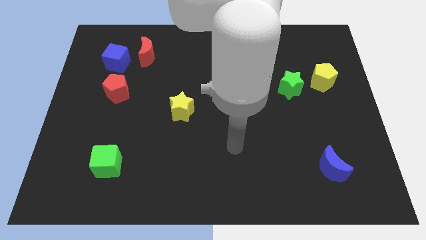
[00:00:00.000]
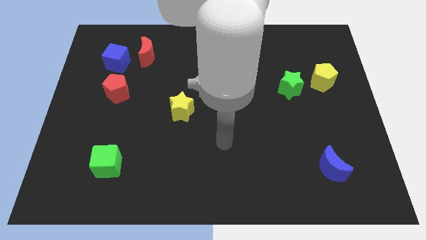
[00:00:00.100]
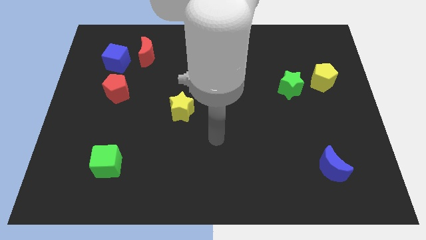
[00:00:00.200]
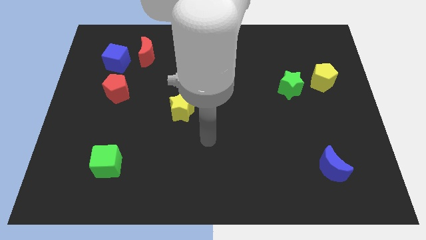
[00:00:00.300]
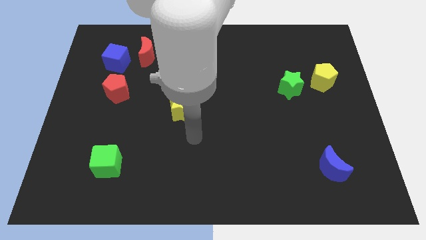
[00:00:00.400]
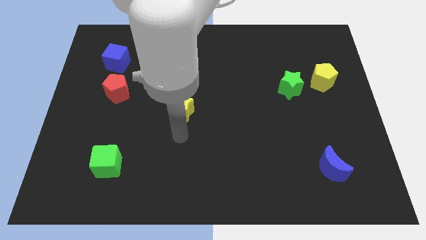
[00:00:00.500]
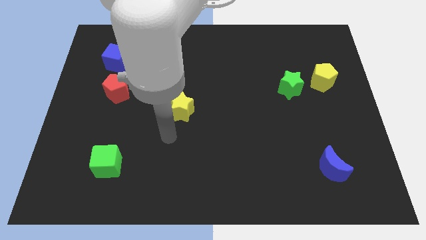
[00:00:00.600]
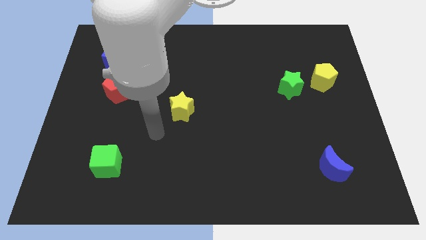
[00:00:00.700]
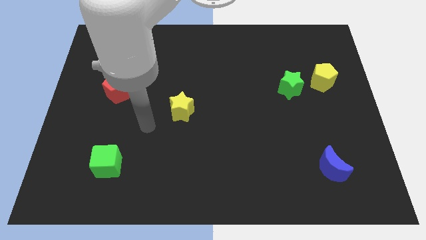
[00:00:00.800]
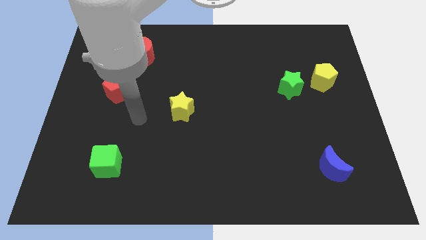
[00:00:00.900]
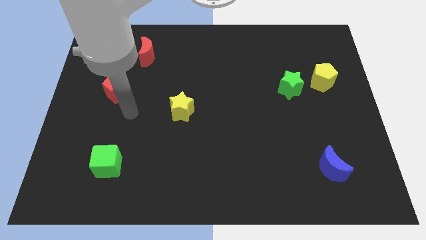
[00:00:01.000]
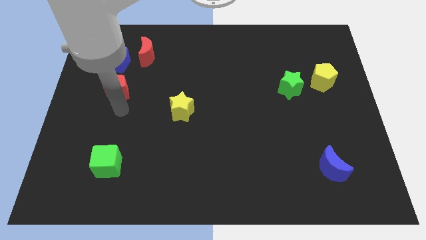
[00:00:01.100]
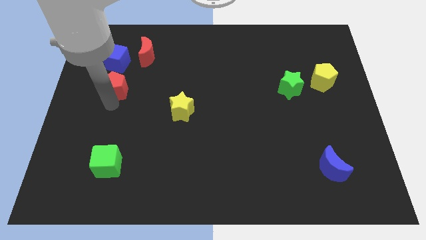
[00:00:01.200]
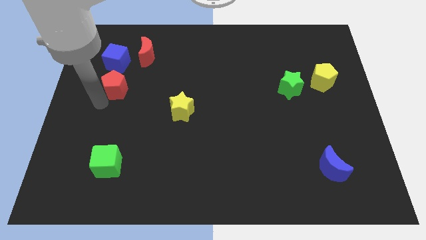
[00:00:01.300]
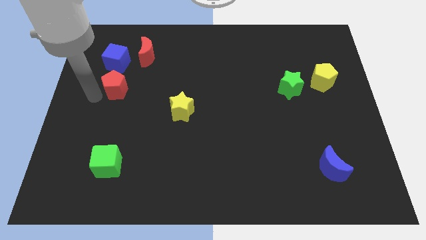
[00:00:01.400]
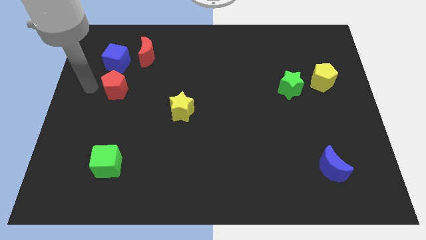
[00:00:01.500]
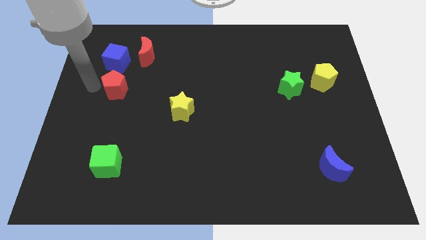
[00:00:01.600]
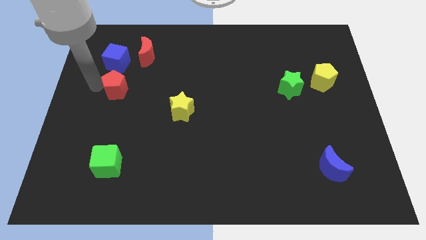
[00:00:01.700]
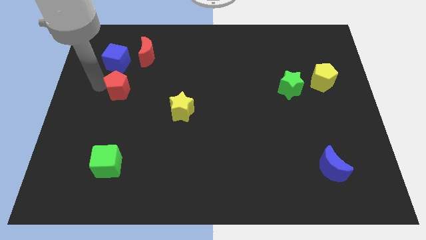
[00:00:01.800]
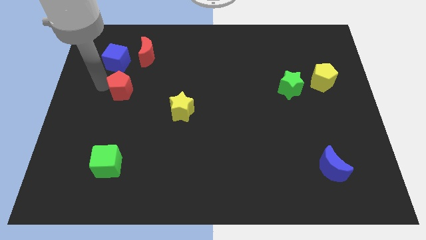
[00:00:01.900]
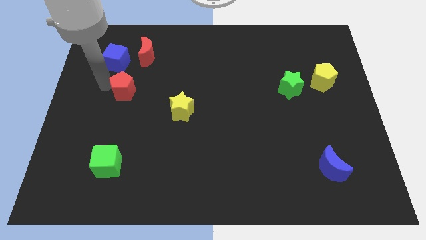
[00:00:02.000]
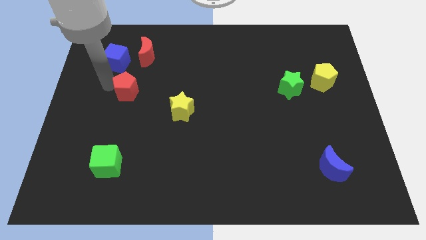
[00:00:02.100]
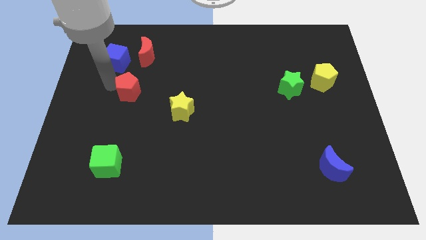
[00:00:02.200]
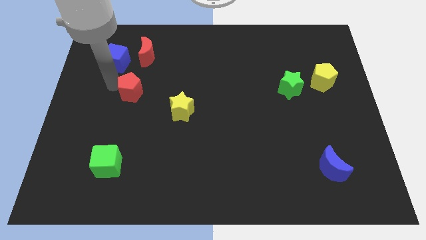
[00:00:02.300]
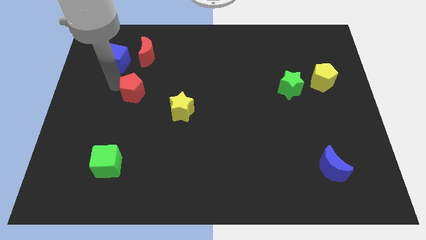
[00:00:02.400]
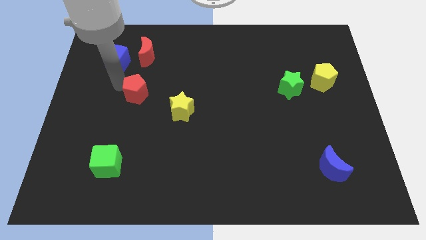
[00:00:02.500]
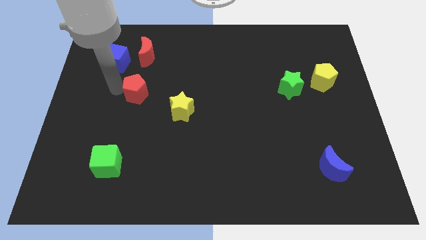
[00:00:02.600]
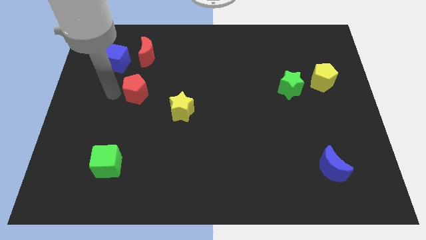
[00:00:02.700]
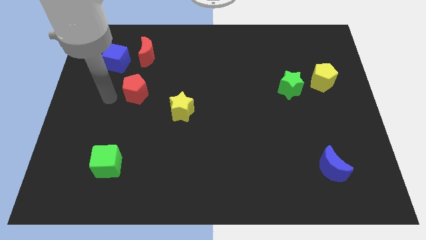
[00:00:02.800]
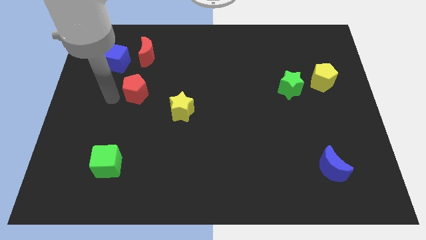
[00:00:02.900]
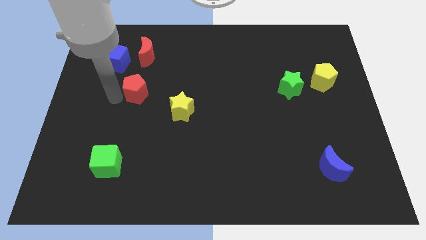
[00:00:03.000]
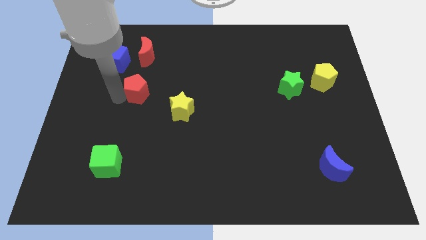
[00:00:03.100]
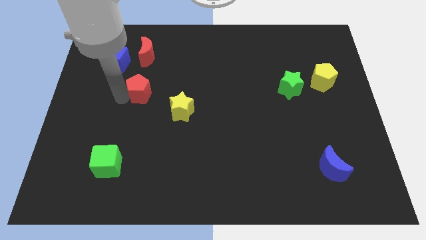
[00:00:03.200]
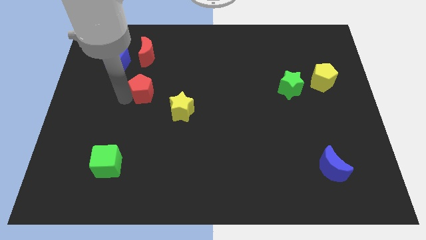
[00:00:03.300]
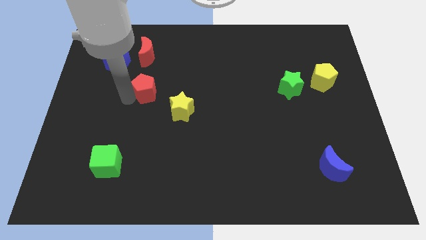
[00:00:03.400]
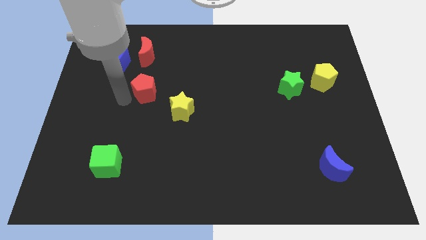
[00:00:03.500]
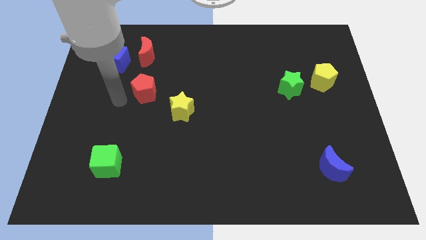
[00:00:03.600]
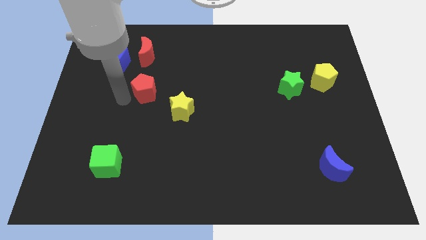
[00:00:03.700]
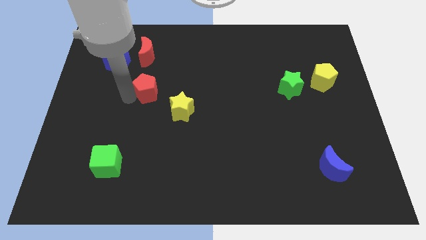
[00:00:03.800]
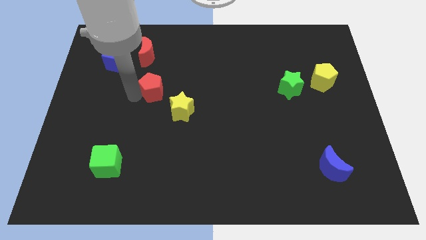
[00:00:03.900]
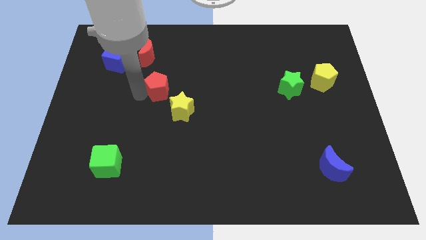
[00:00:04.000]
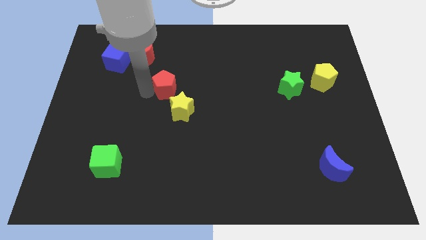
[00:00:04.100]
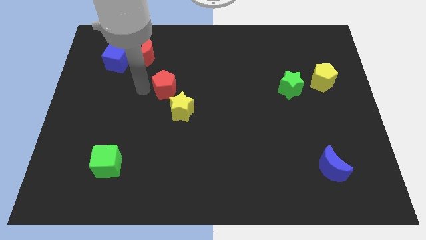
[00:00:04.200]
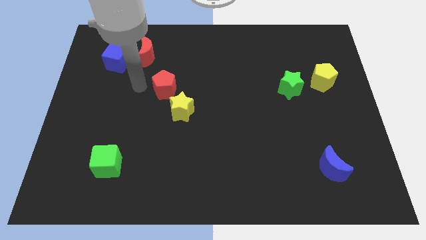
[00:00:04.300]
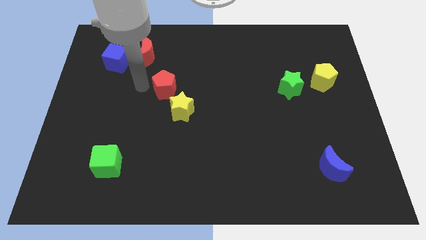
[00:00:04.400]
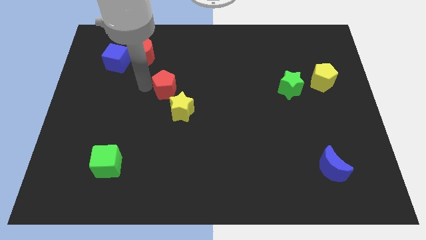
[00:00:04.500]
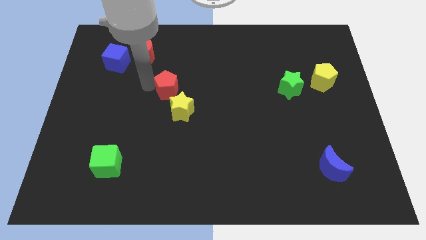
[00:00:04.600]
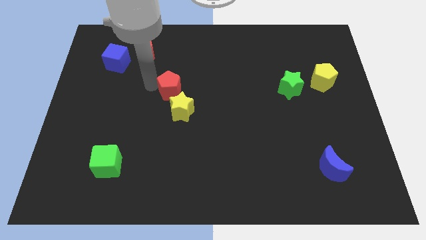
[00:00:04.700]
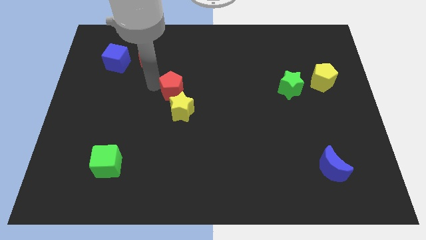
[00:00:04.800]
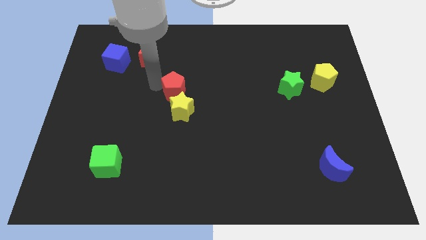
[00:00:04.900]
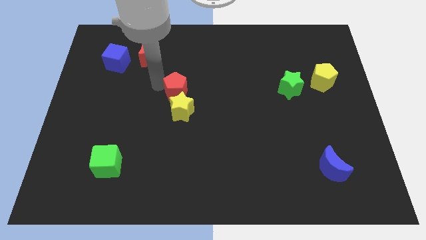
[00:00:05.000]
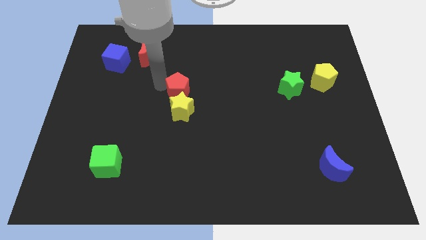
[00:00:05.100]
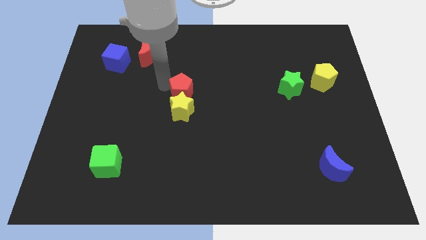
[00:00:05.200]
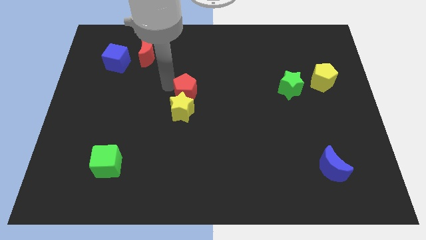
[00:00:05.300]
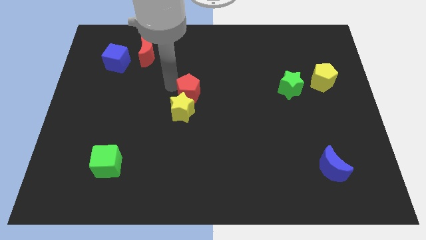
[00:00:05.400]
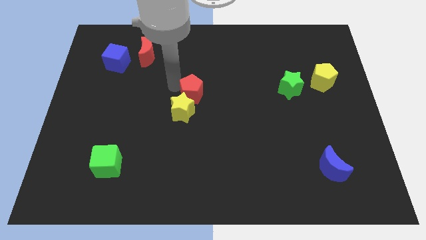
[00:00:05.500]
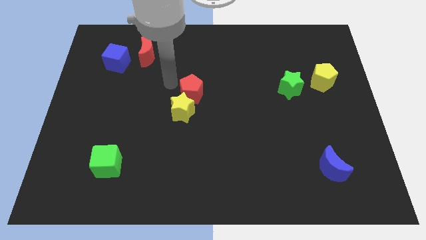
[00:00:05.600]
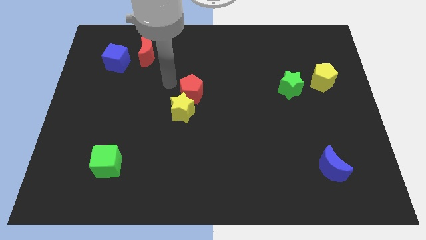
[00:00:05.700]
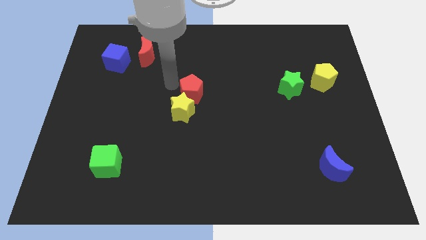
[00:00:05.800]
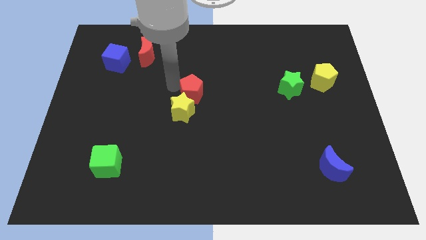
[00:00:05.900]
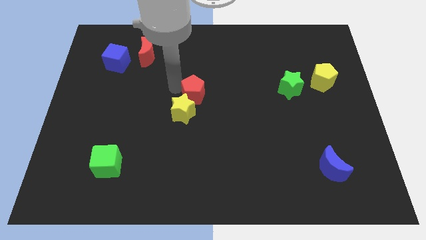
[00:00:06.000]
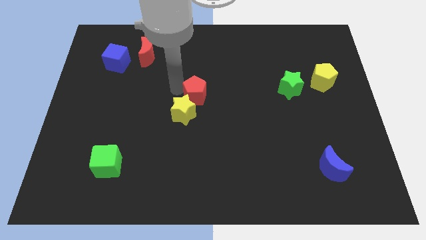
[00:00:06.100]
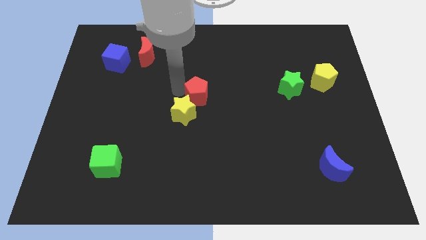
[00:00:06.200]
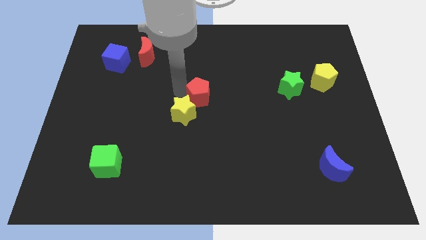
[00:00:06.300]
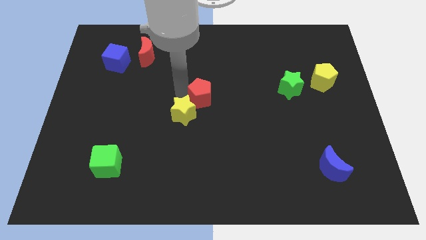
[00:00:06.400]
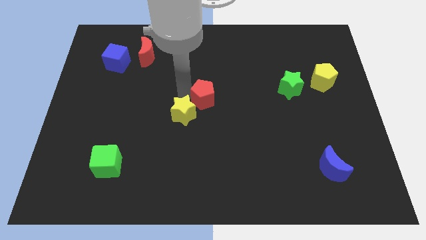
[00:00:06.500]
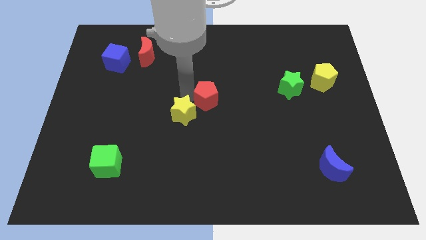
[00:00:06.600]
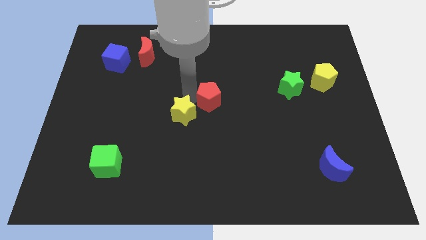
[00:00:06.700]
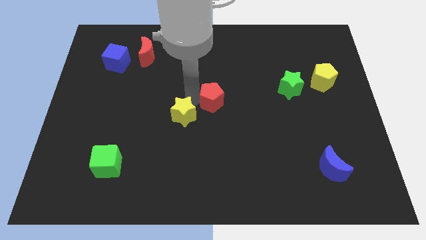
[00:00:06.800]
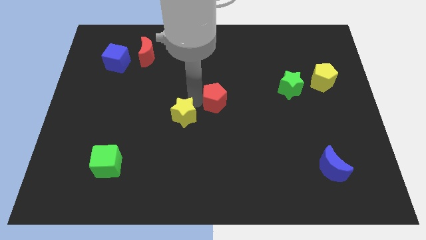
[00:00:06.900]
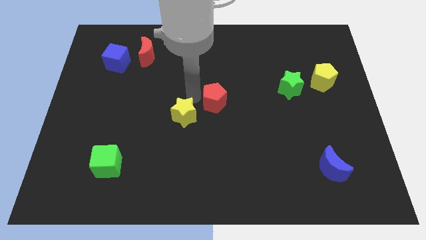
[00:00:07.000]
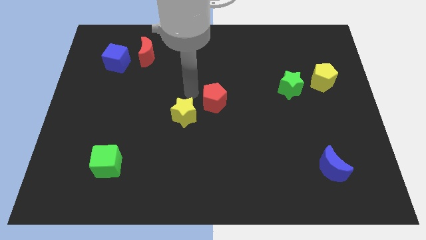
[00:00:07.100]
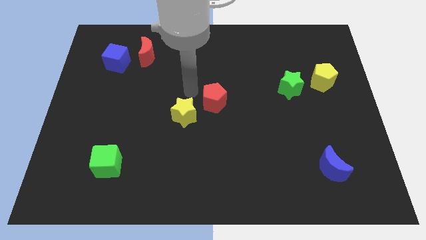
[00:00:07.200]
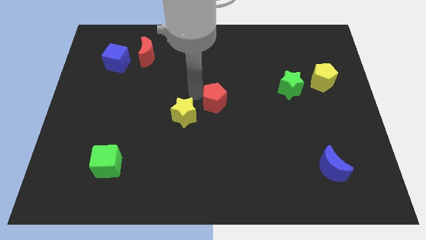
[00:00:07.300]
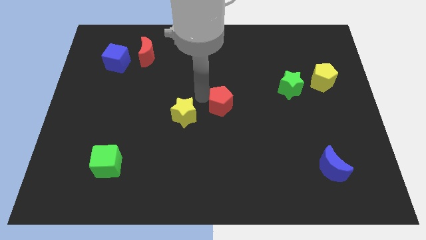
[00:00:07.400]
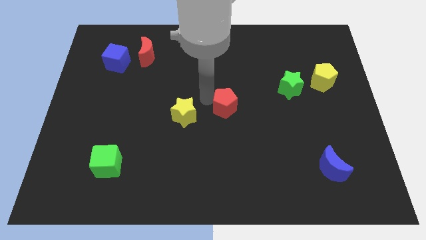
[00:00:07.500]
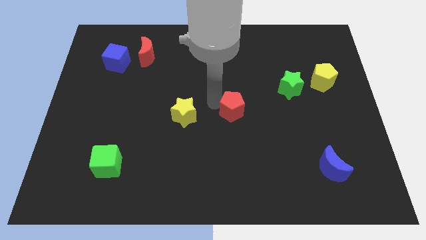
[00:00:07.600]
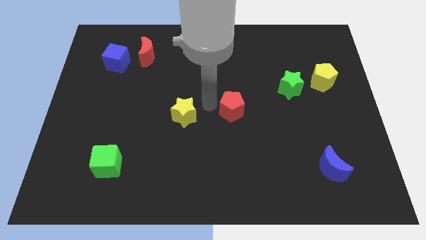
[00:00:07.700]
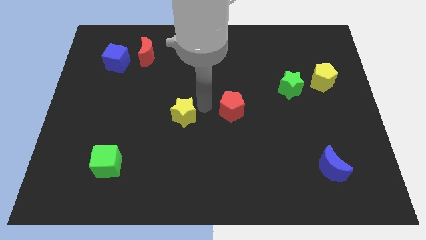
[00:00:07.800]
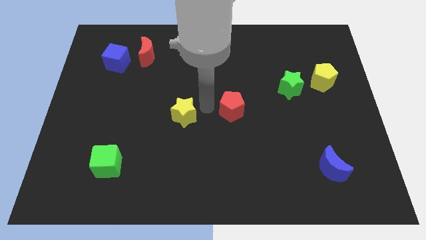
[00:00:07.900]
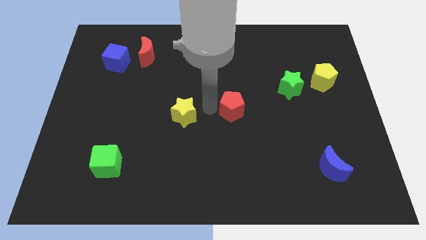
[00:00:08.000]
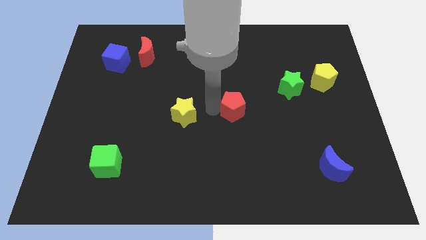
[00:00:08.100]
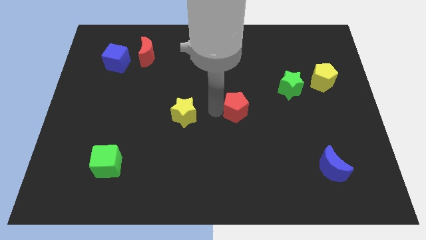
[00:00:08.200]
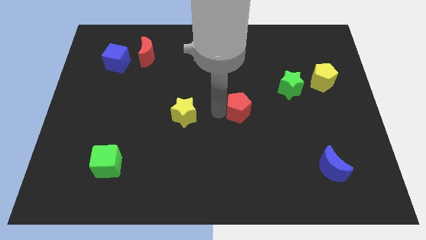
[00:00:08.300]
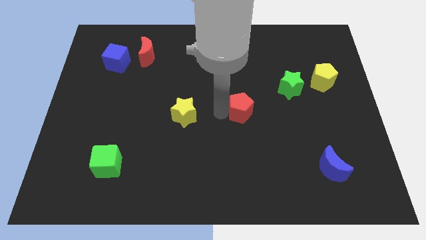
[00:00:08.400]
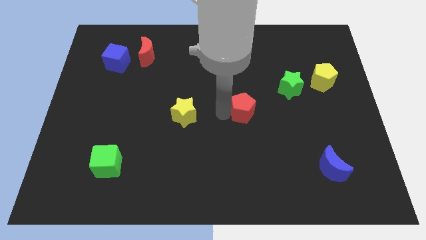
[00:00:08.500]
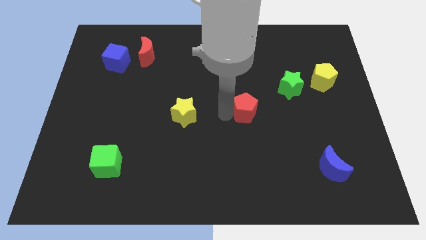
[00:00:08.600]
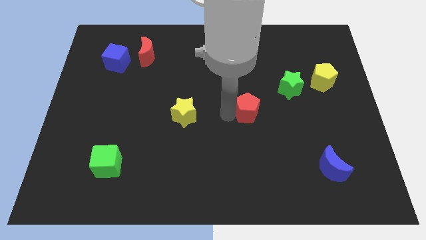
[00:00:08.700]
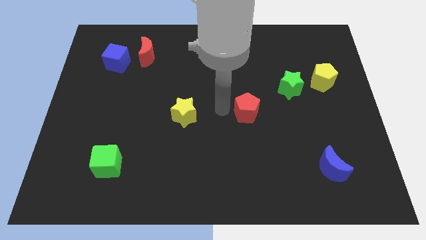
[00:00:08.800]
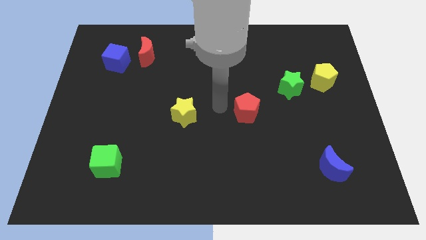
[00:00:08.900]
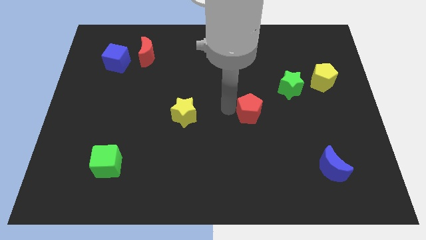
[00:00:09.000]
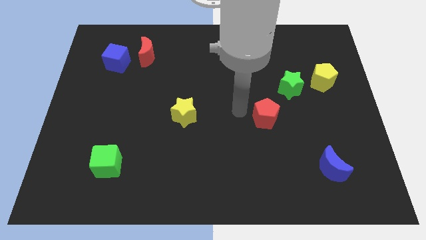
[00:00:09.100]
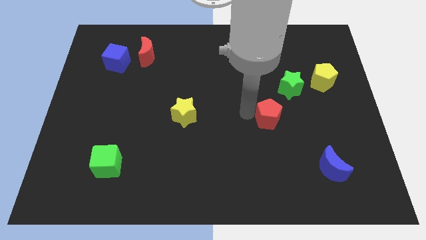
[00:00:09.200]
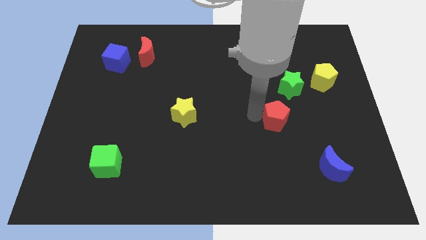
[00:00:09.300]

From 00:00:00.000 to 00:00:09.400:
slide the red pentagon below the green star
